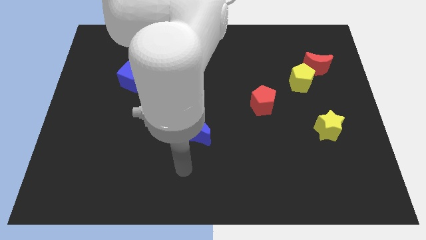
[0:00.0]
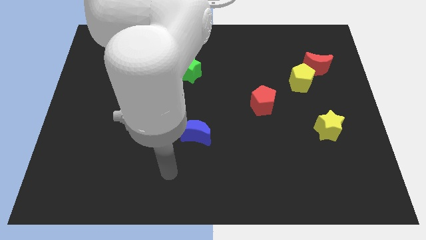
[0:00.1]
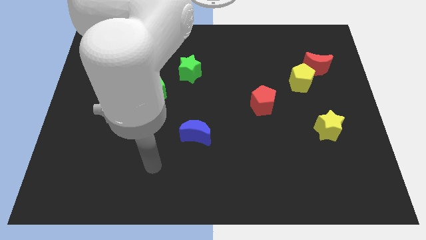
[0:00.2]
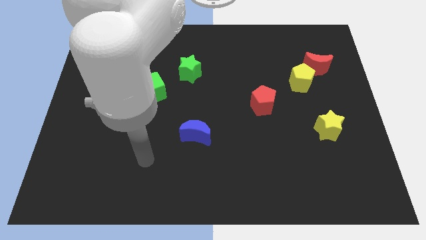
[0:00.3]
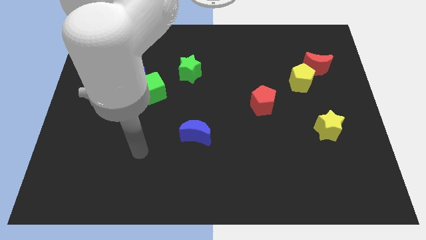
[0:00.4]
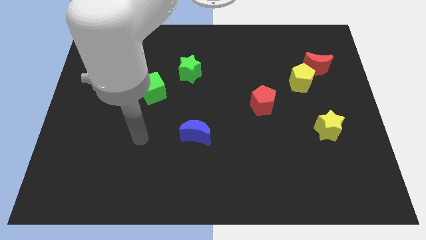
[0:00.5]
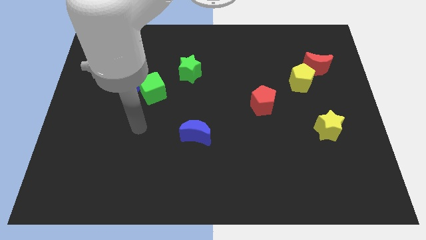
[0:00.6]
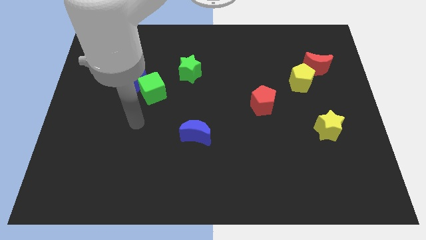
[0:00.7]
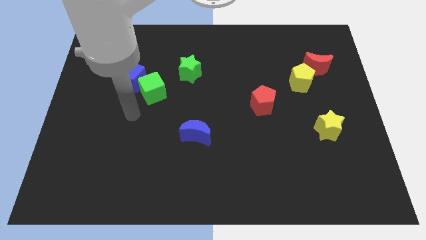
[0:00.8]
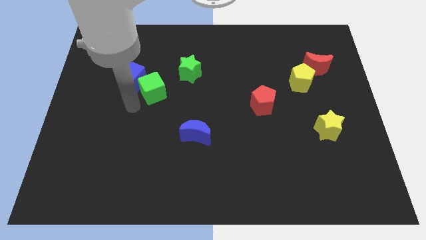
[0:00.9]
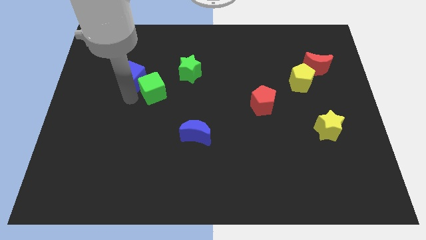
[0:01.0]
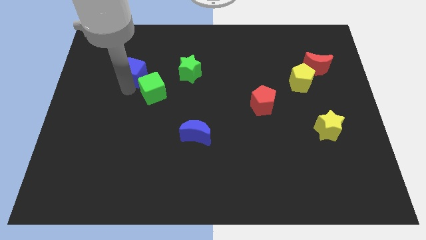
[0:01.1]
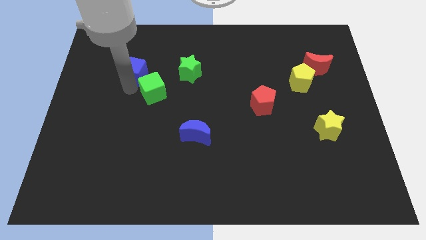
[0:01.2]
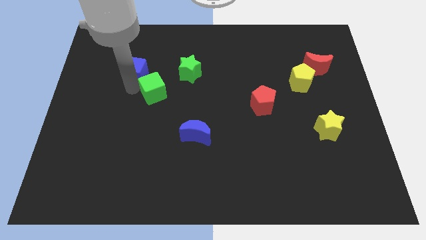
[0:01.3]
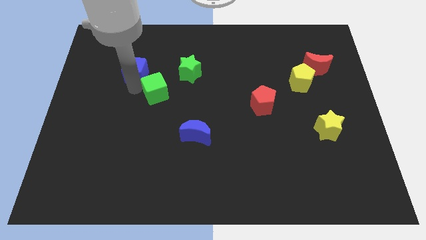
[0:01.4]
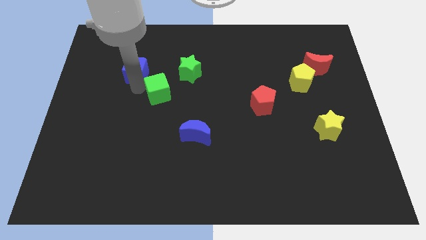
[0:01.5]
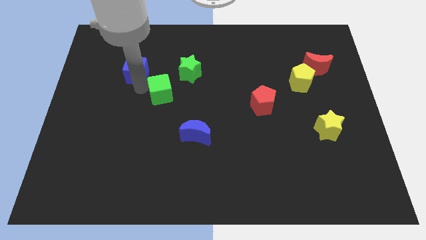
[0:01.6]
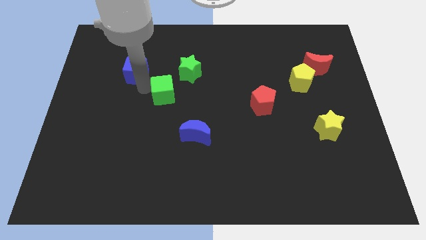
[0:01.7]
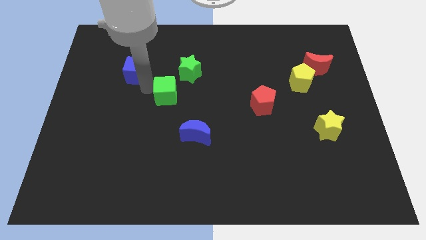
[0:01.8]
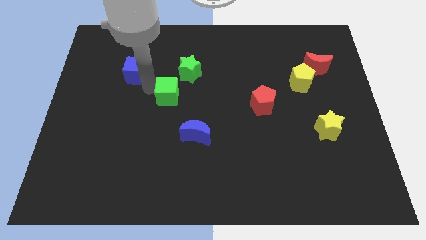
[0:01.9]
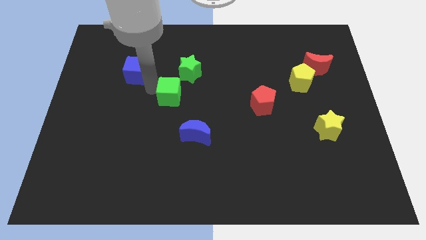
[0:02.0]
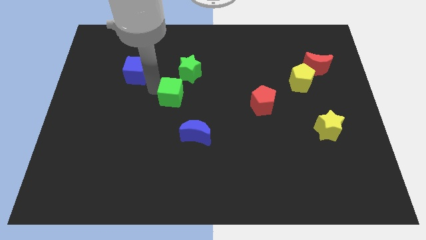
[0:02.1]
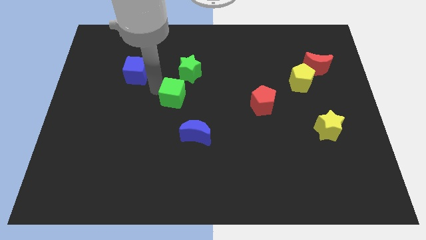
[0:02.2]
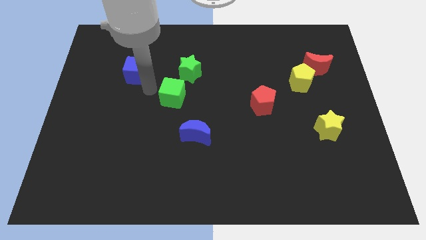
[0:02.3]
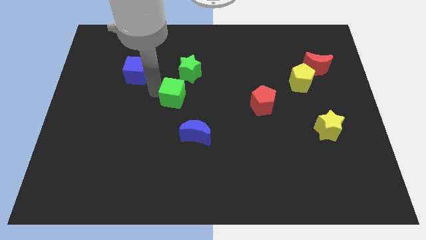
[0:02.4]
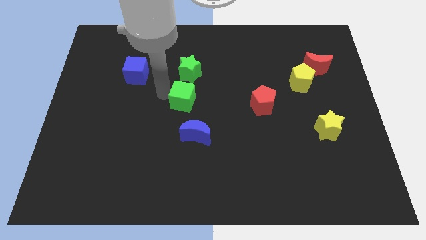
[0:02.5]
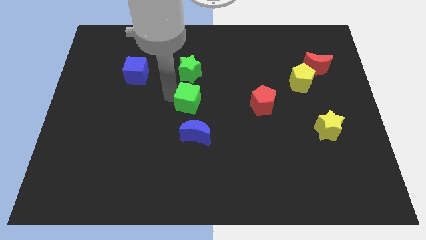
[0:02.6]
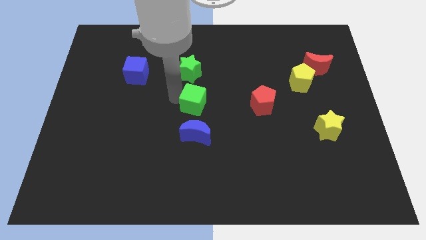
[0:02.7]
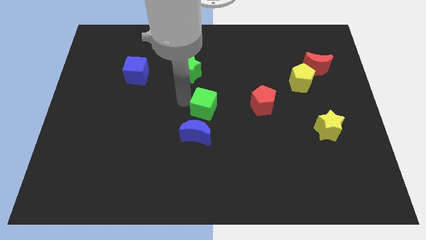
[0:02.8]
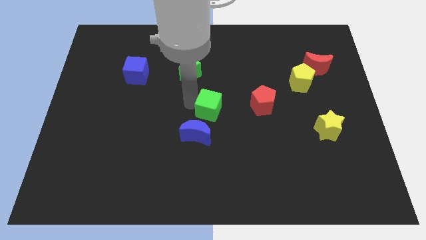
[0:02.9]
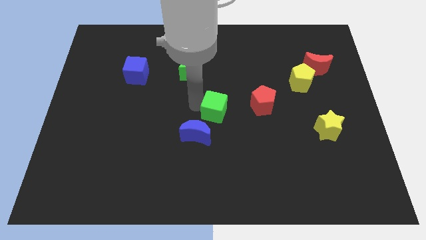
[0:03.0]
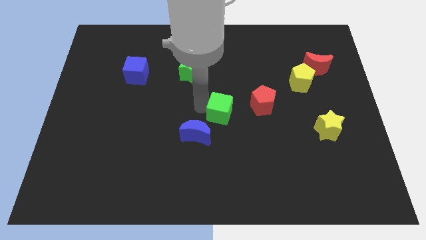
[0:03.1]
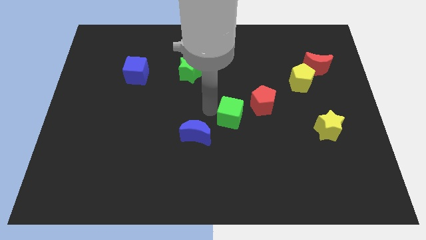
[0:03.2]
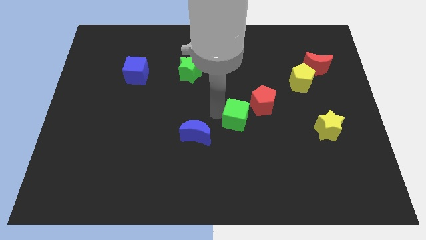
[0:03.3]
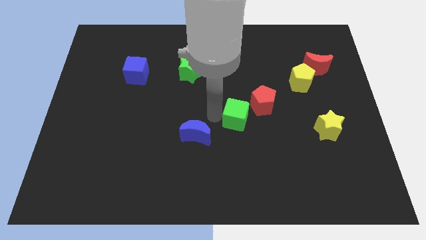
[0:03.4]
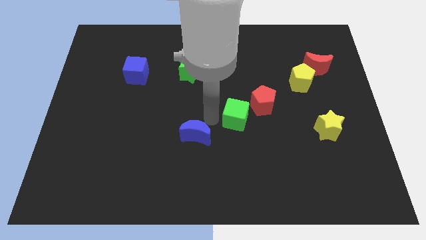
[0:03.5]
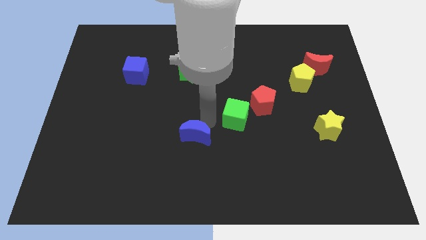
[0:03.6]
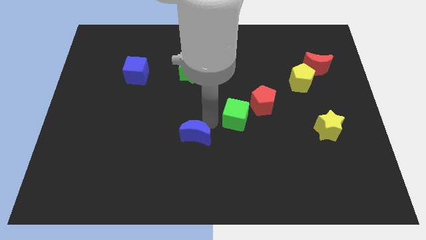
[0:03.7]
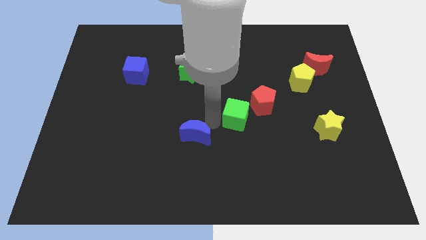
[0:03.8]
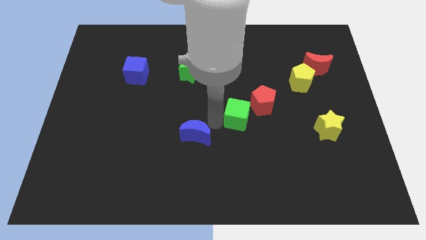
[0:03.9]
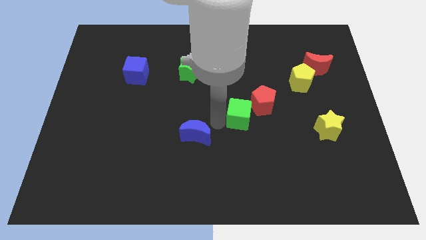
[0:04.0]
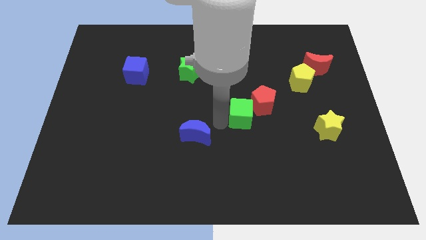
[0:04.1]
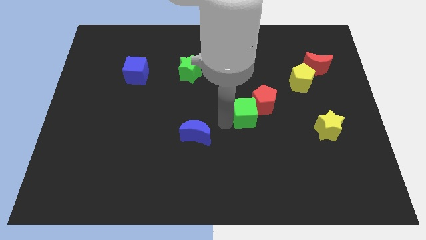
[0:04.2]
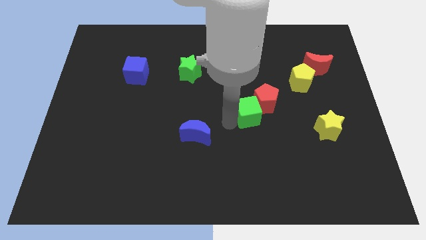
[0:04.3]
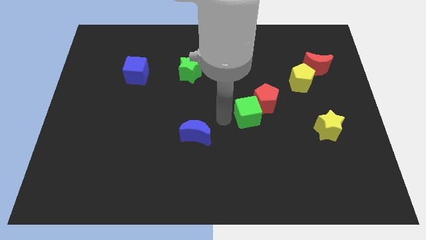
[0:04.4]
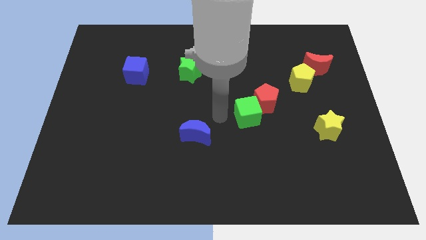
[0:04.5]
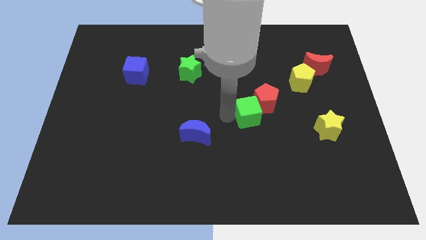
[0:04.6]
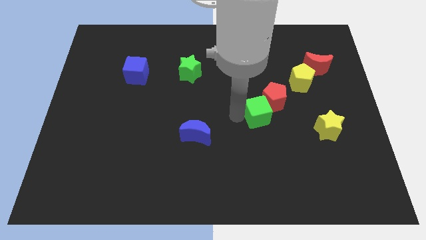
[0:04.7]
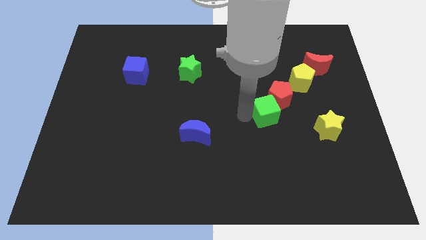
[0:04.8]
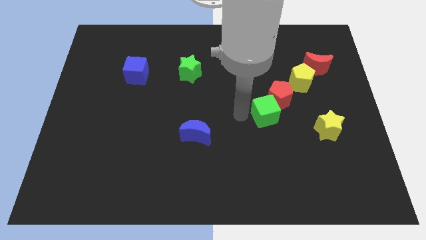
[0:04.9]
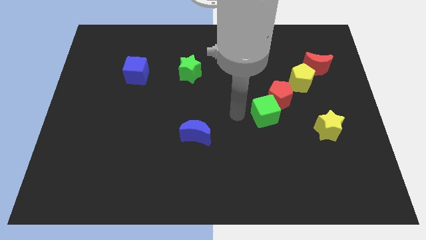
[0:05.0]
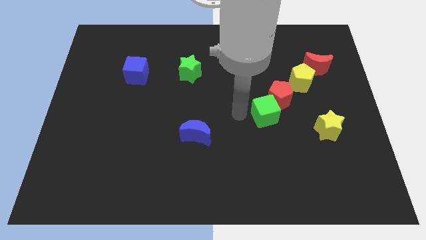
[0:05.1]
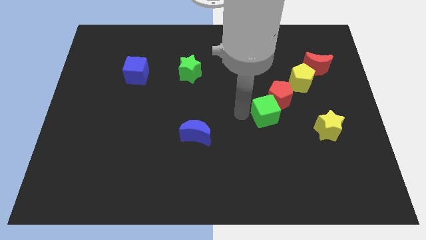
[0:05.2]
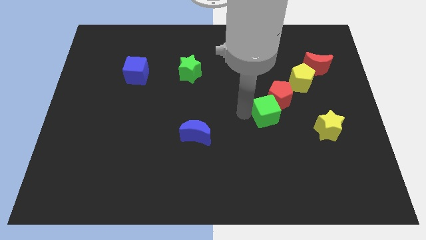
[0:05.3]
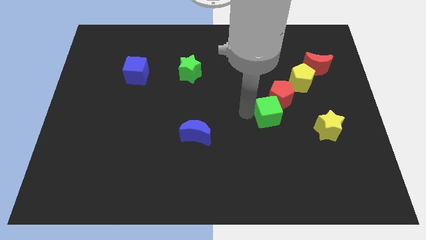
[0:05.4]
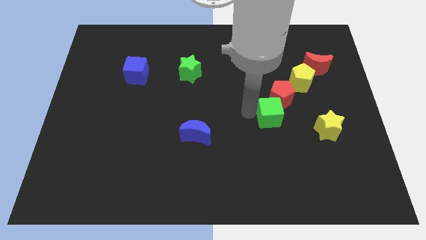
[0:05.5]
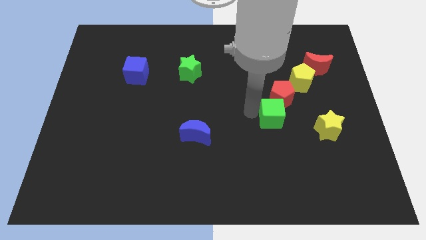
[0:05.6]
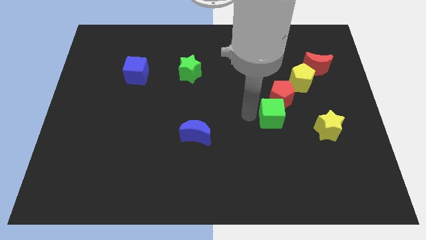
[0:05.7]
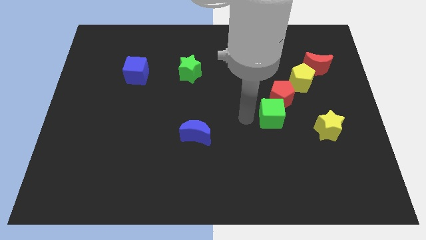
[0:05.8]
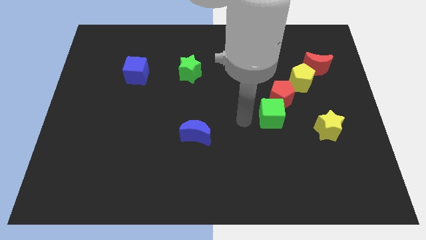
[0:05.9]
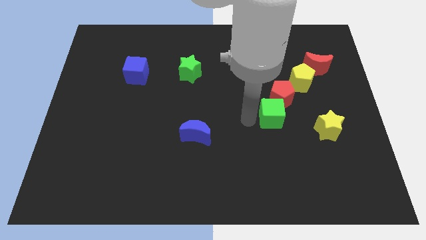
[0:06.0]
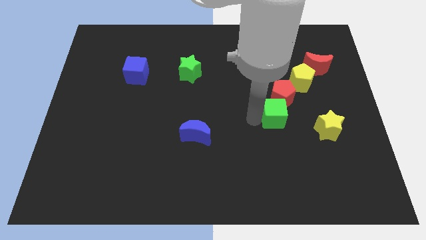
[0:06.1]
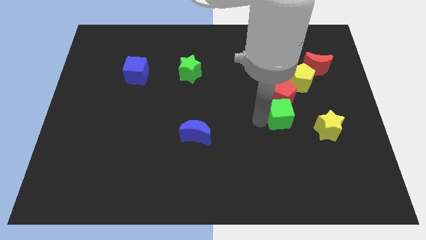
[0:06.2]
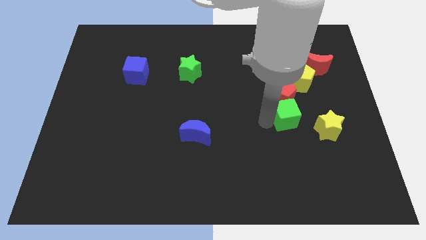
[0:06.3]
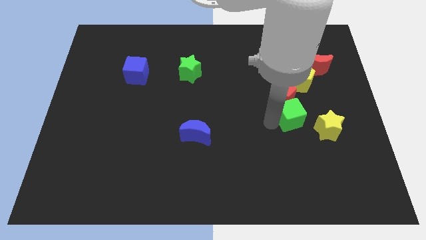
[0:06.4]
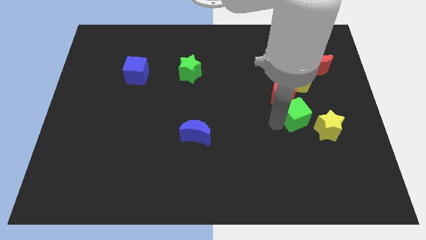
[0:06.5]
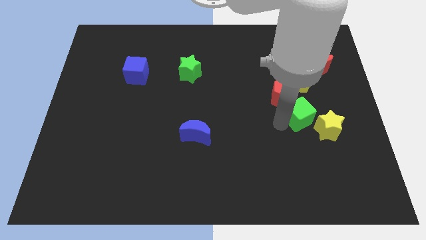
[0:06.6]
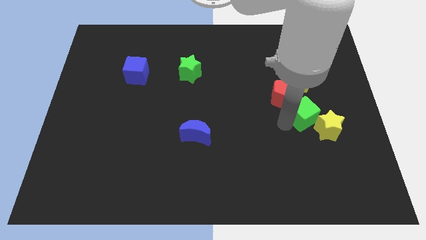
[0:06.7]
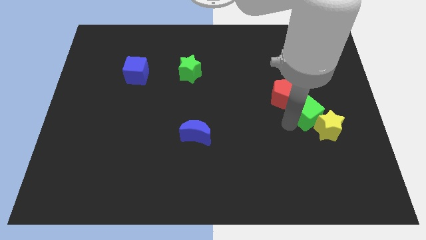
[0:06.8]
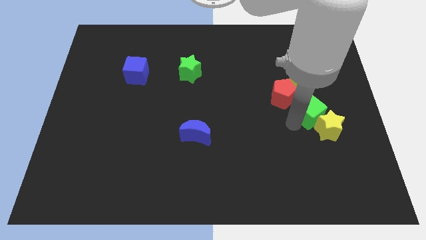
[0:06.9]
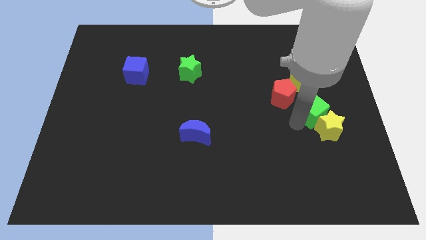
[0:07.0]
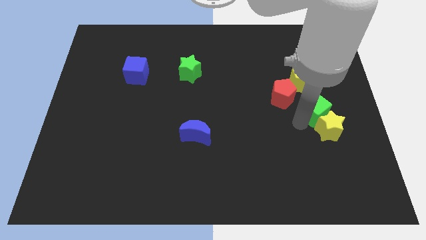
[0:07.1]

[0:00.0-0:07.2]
push the green cube to the right of the red pentagon
